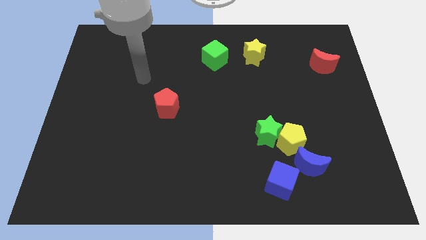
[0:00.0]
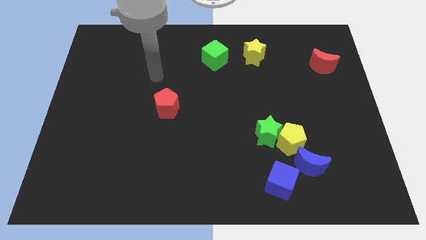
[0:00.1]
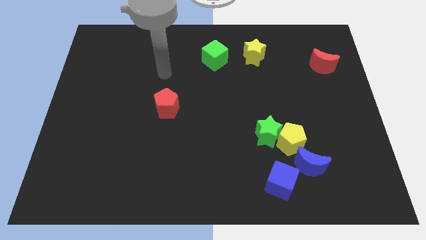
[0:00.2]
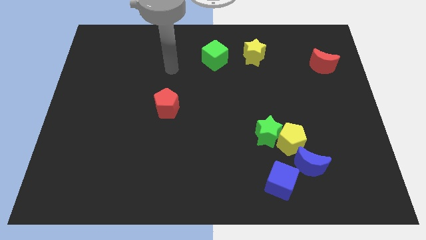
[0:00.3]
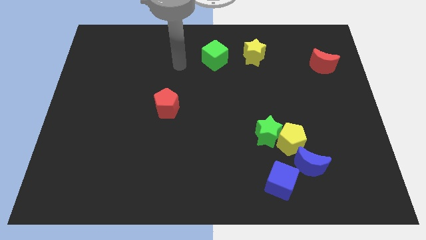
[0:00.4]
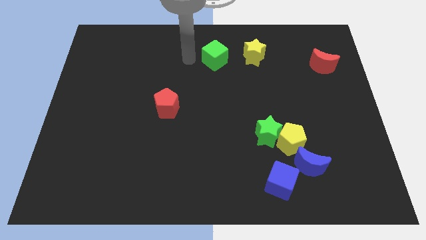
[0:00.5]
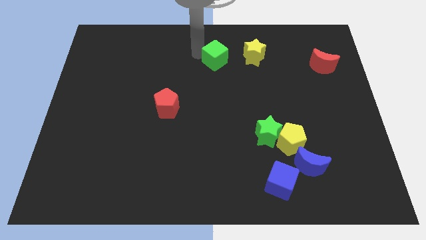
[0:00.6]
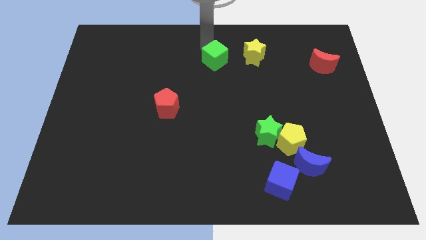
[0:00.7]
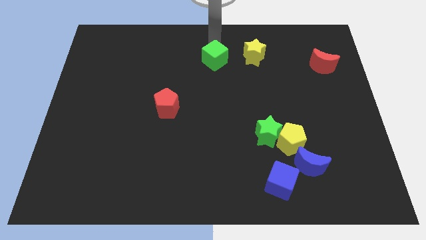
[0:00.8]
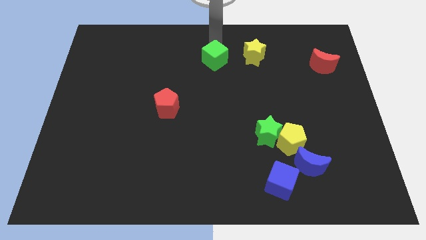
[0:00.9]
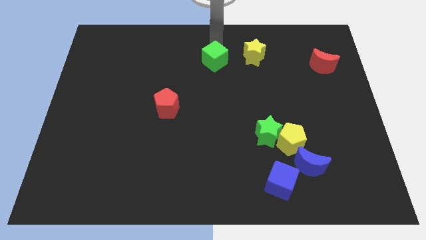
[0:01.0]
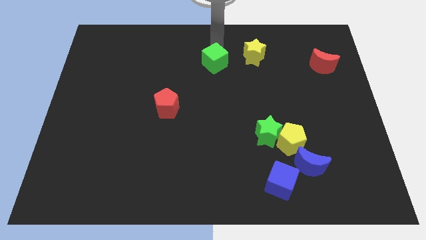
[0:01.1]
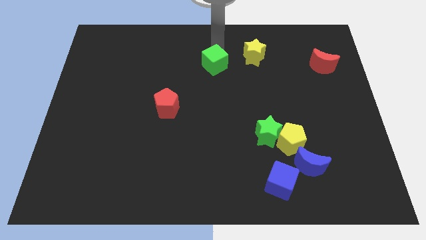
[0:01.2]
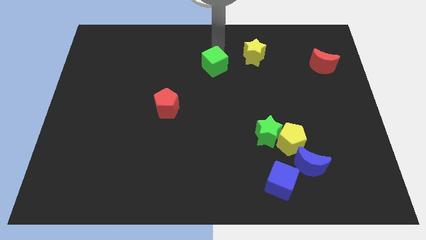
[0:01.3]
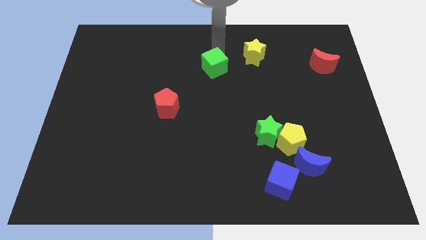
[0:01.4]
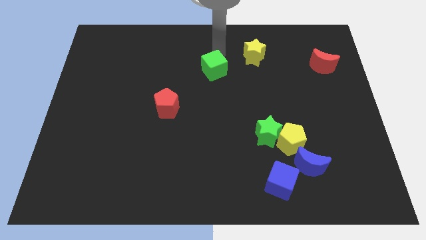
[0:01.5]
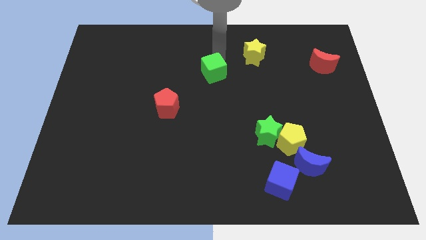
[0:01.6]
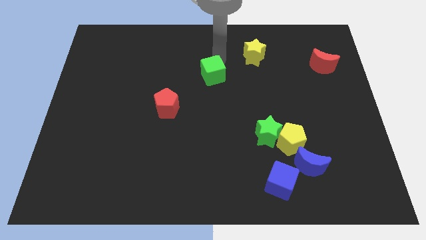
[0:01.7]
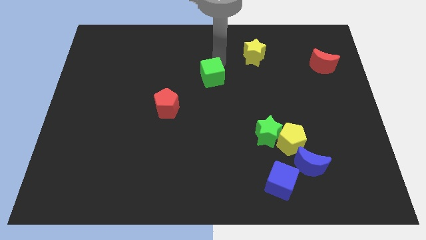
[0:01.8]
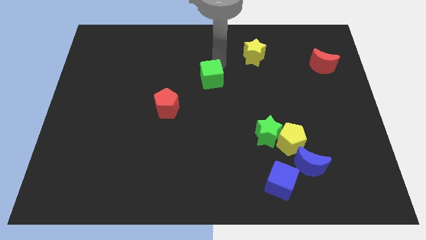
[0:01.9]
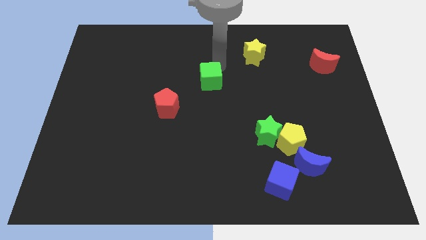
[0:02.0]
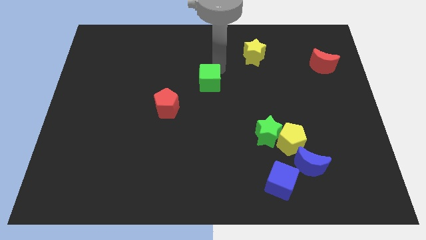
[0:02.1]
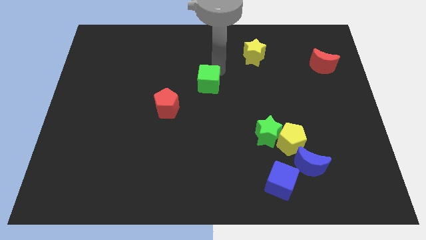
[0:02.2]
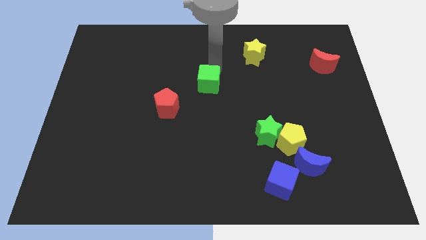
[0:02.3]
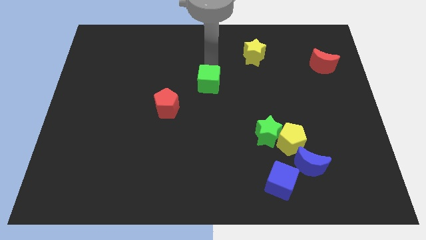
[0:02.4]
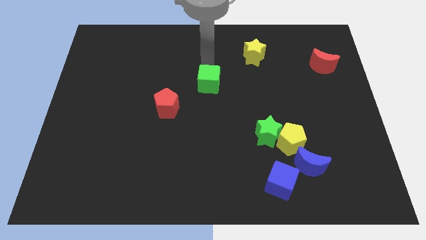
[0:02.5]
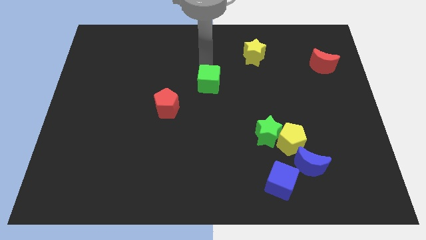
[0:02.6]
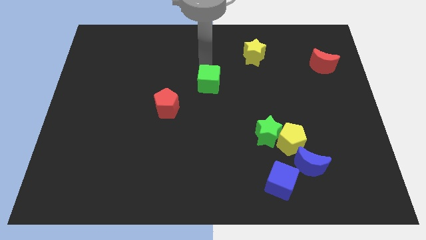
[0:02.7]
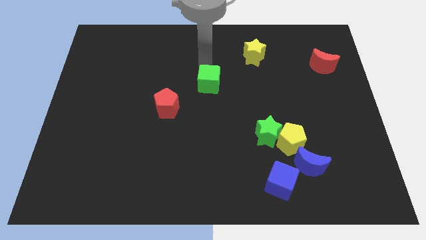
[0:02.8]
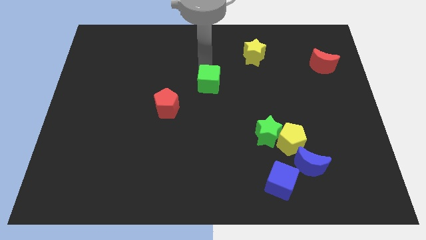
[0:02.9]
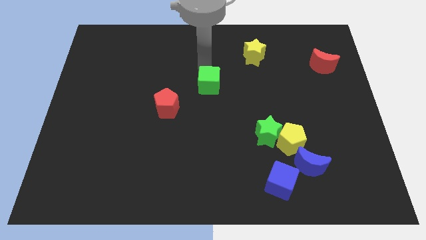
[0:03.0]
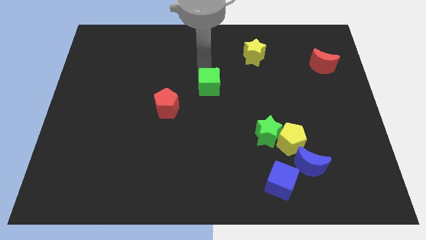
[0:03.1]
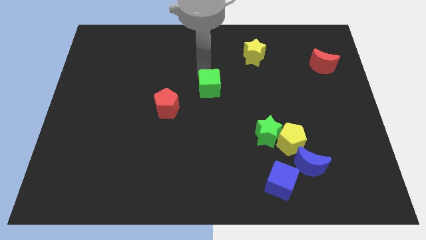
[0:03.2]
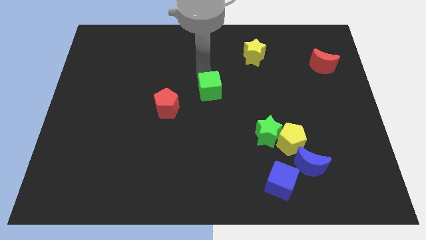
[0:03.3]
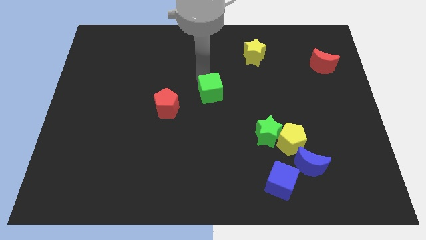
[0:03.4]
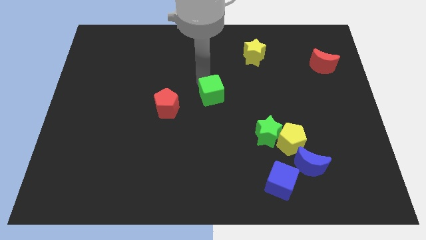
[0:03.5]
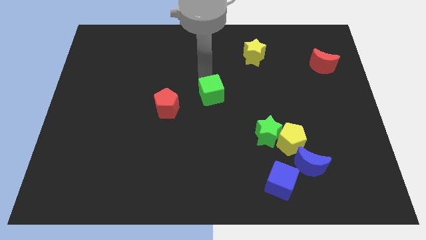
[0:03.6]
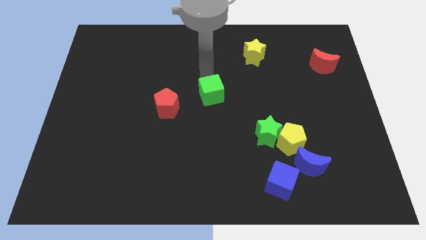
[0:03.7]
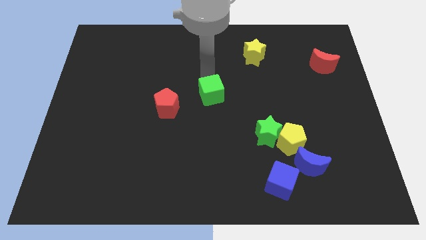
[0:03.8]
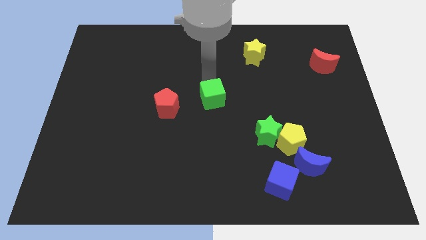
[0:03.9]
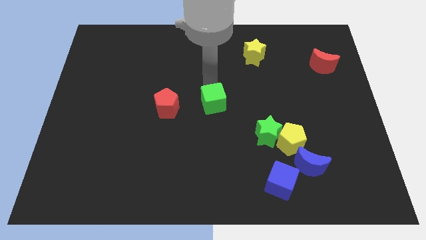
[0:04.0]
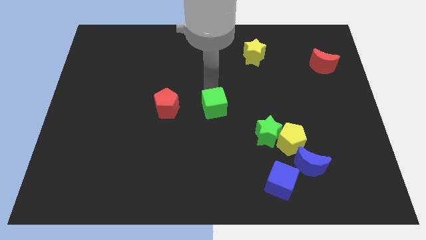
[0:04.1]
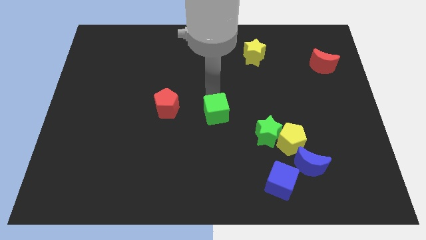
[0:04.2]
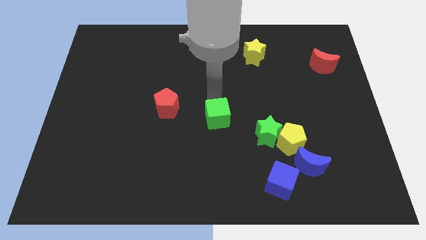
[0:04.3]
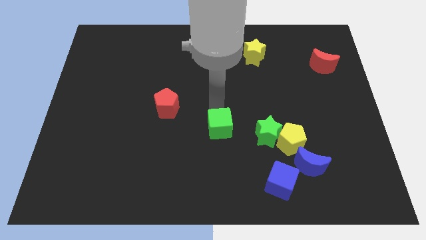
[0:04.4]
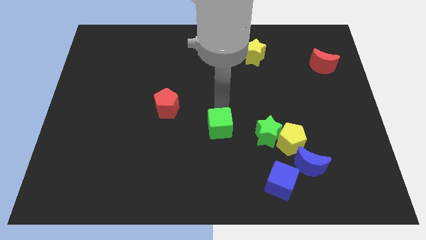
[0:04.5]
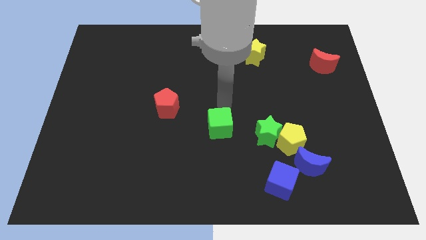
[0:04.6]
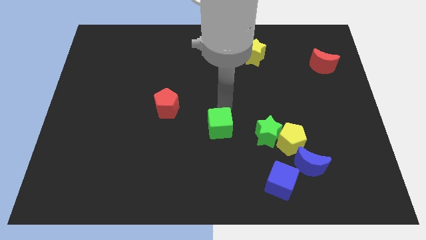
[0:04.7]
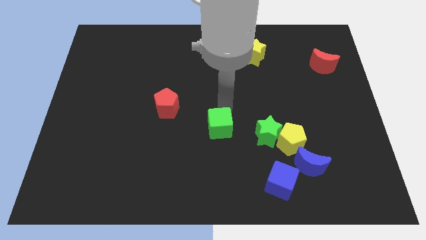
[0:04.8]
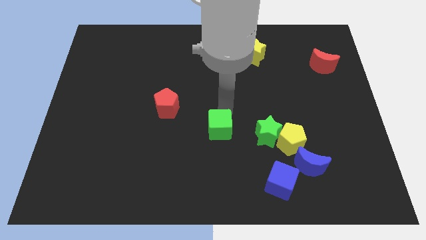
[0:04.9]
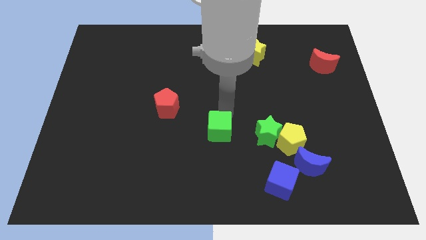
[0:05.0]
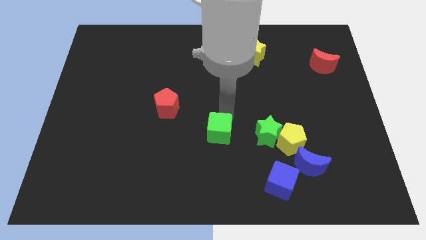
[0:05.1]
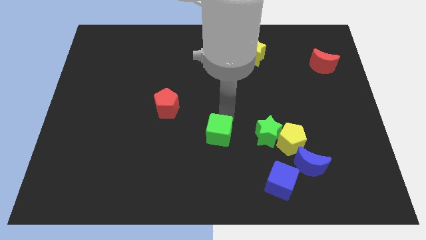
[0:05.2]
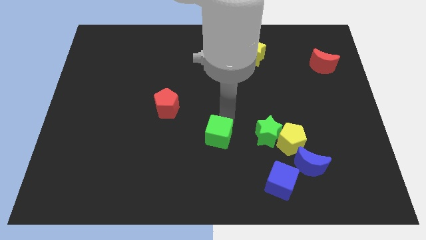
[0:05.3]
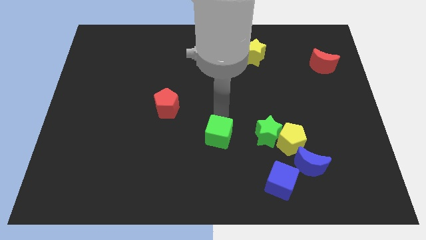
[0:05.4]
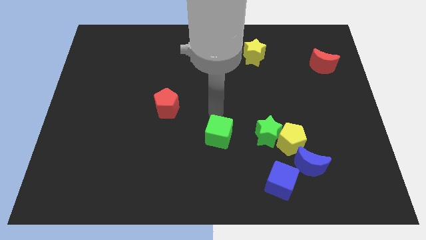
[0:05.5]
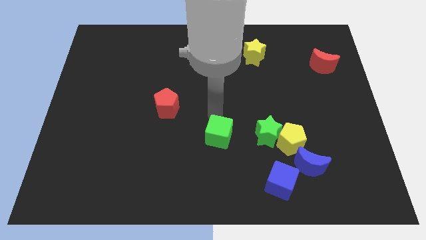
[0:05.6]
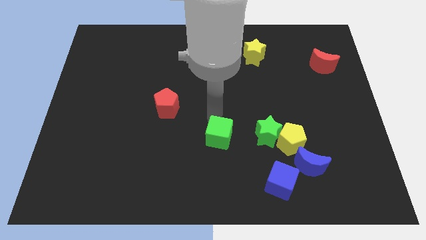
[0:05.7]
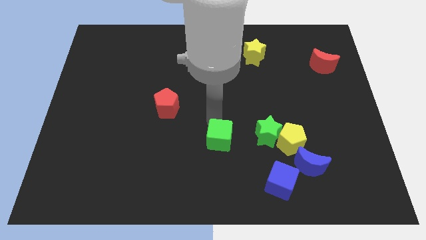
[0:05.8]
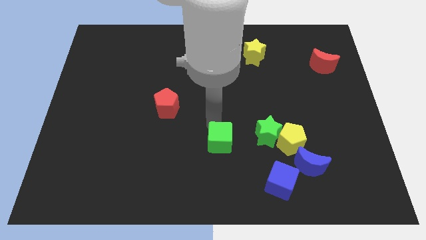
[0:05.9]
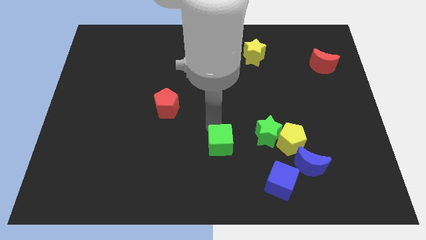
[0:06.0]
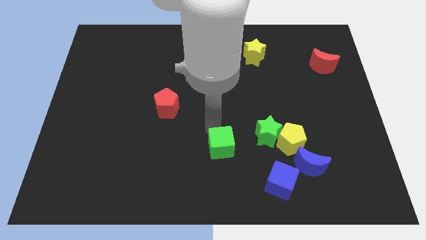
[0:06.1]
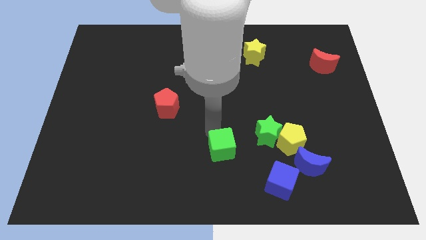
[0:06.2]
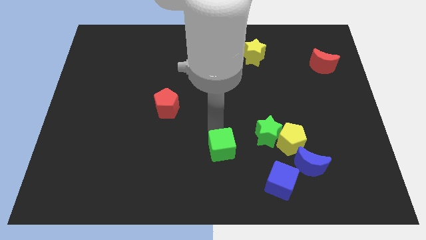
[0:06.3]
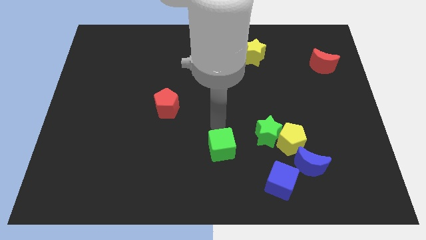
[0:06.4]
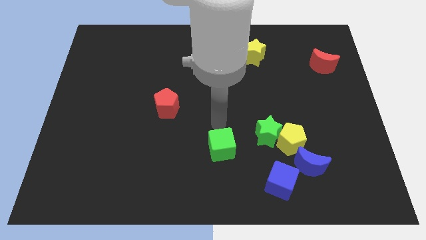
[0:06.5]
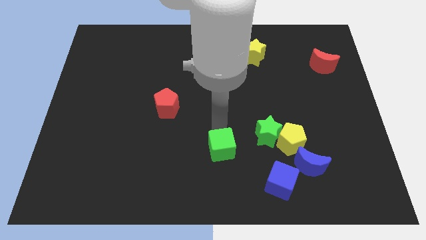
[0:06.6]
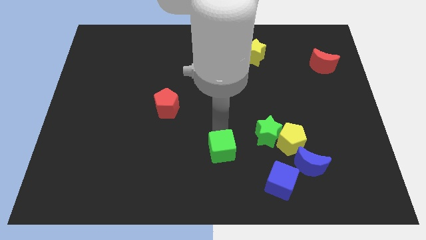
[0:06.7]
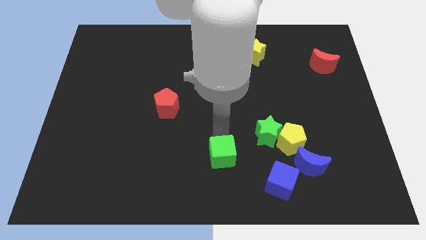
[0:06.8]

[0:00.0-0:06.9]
move the green cube to the bottom

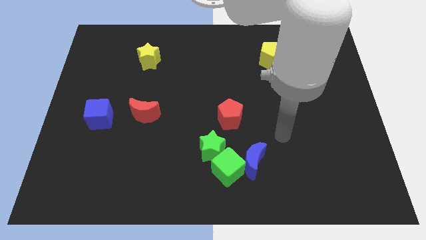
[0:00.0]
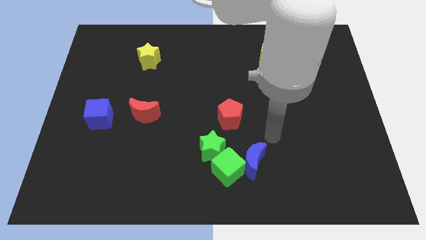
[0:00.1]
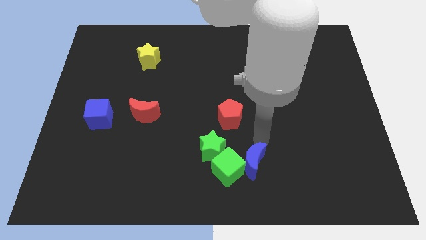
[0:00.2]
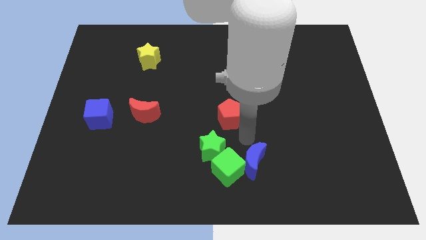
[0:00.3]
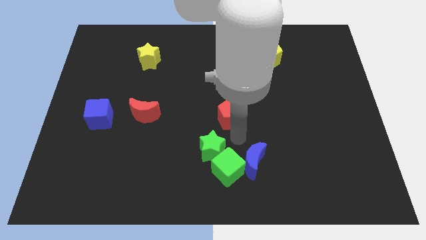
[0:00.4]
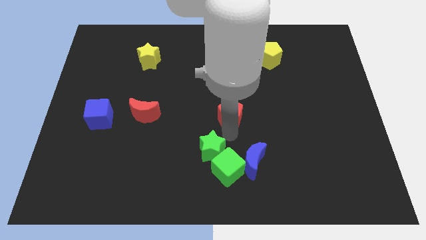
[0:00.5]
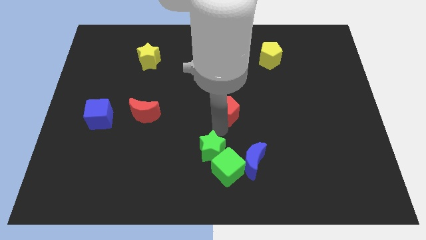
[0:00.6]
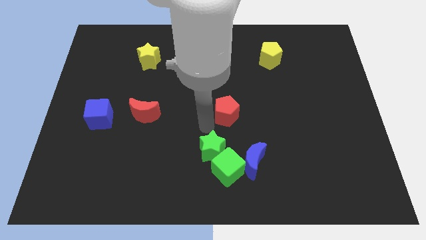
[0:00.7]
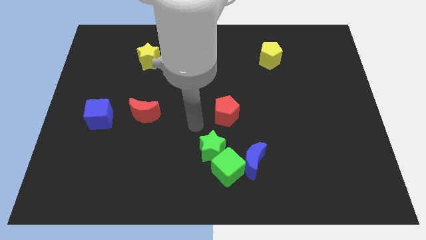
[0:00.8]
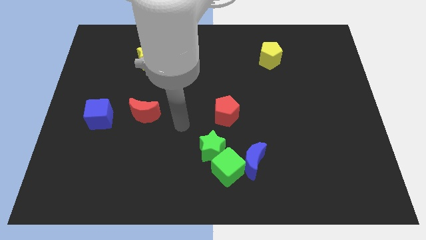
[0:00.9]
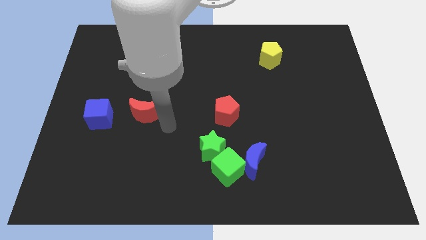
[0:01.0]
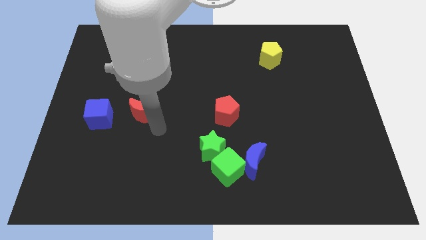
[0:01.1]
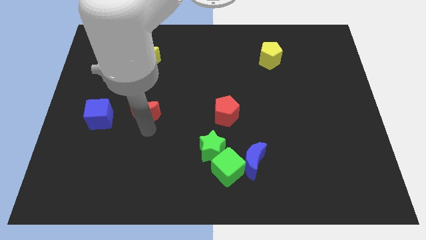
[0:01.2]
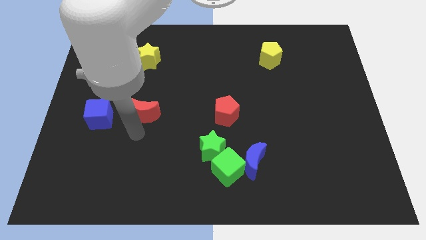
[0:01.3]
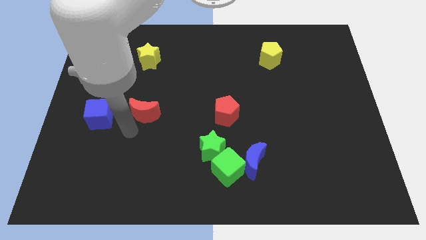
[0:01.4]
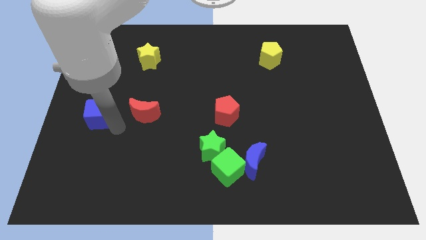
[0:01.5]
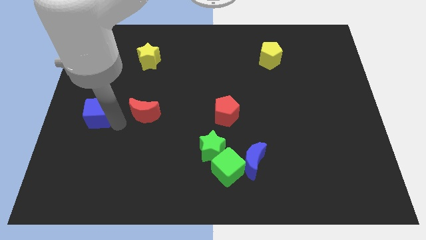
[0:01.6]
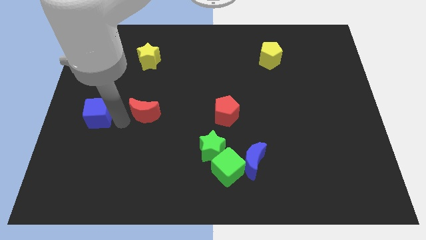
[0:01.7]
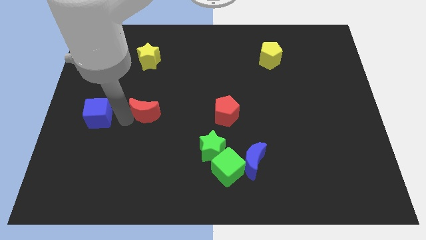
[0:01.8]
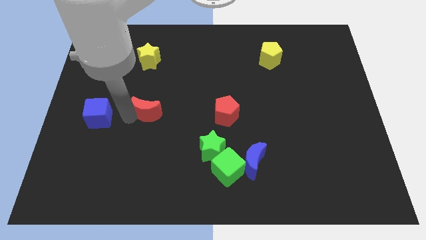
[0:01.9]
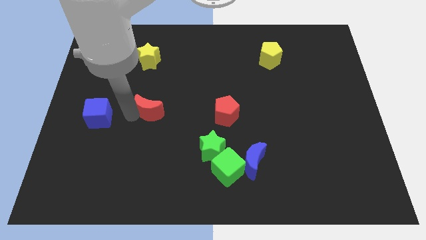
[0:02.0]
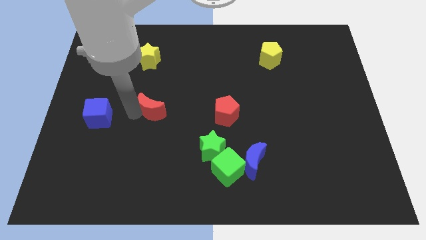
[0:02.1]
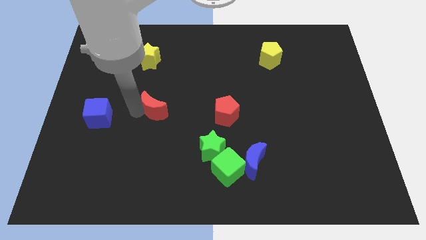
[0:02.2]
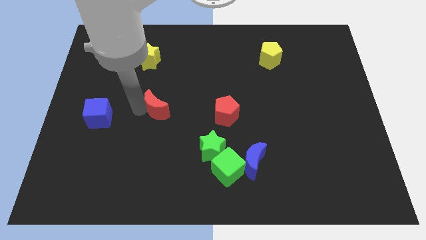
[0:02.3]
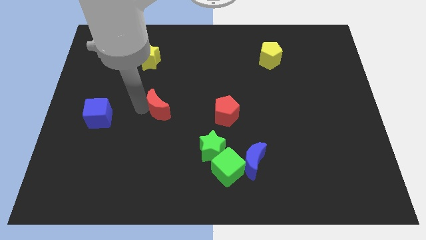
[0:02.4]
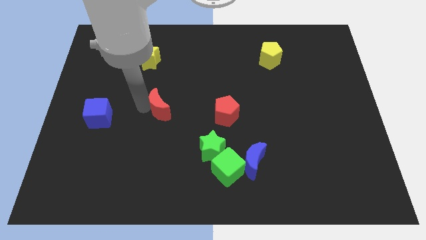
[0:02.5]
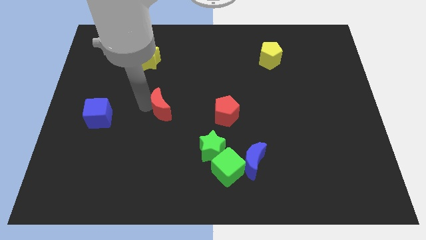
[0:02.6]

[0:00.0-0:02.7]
move the red moon to the center of the board
